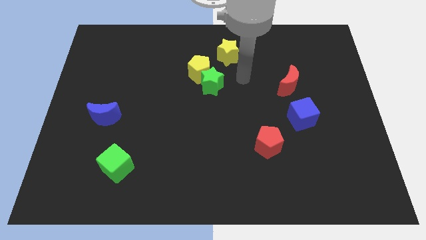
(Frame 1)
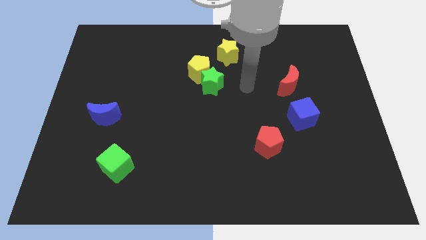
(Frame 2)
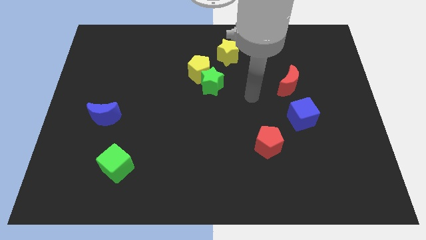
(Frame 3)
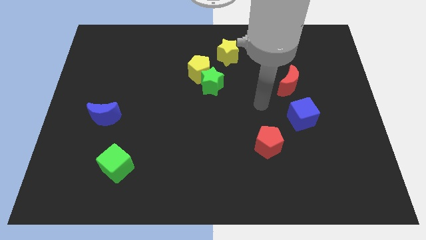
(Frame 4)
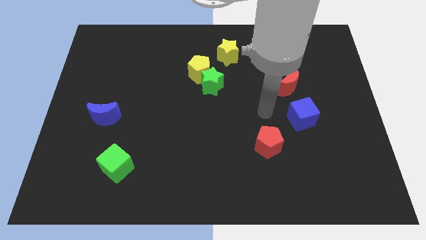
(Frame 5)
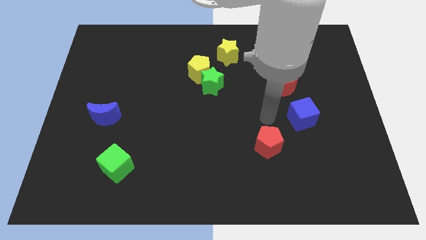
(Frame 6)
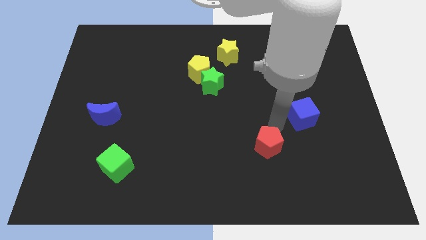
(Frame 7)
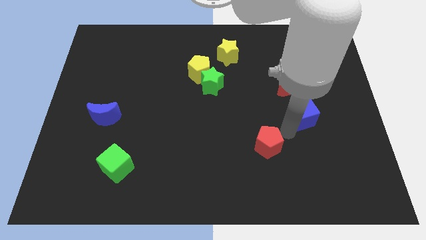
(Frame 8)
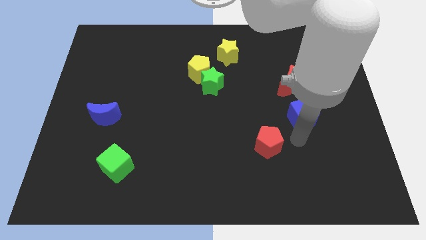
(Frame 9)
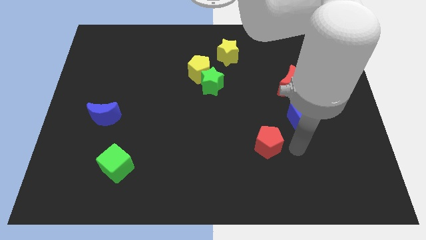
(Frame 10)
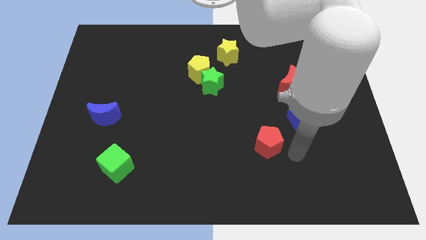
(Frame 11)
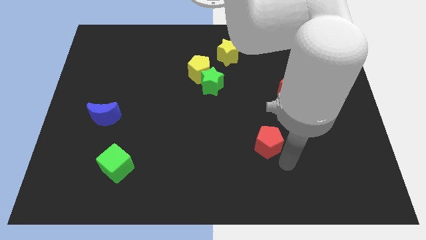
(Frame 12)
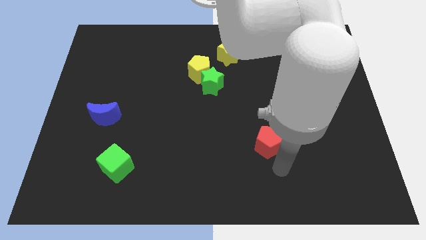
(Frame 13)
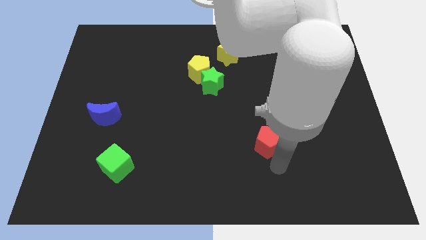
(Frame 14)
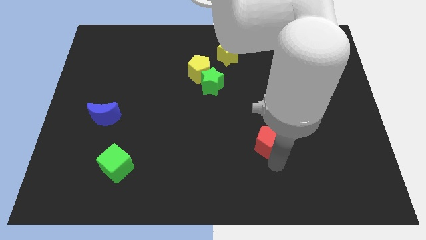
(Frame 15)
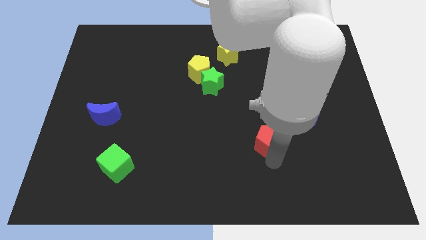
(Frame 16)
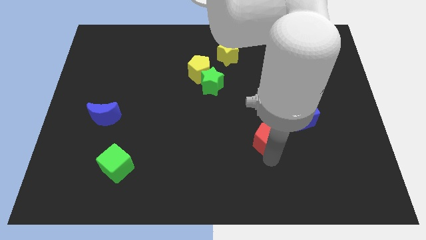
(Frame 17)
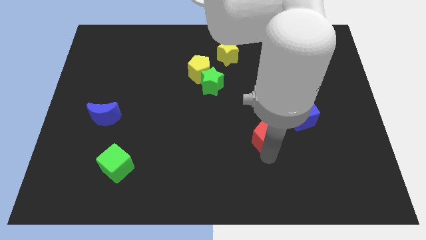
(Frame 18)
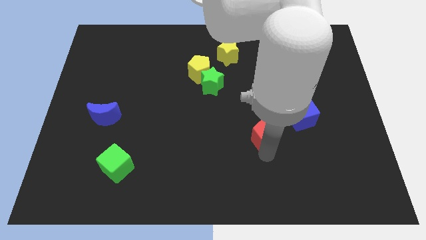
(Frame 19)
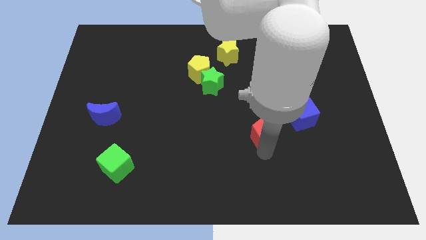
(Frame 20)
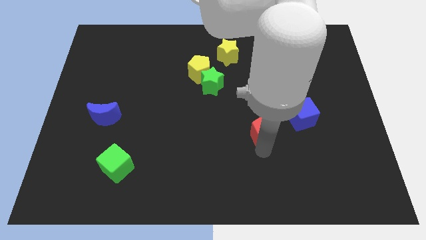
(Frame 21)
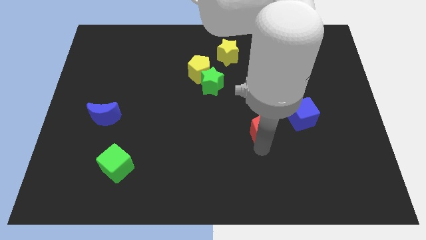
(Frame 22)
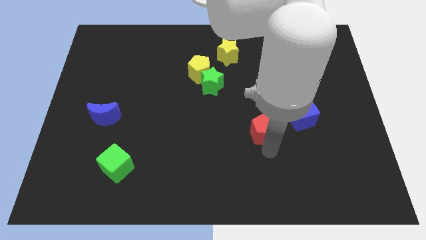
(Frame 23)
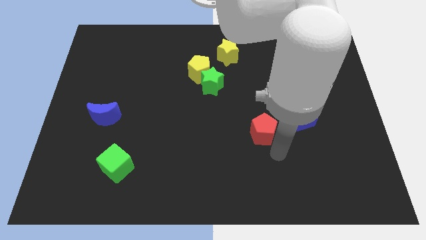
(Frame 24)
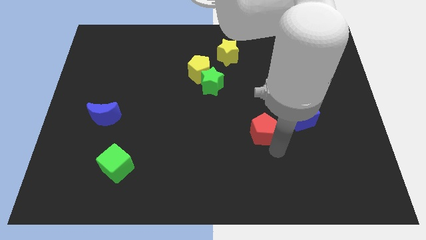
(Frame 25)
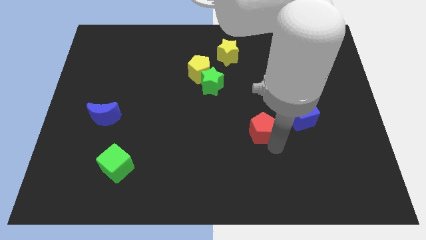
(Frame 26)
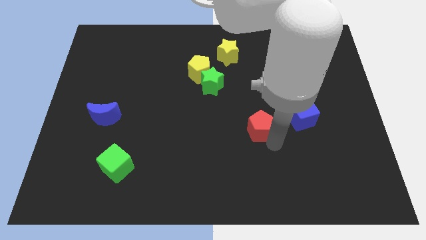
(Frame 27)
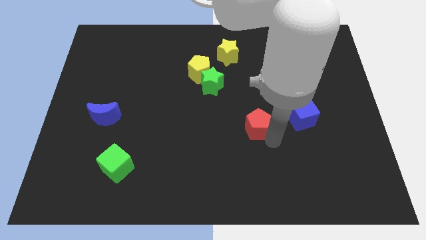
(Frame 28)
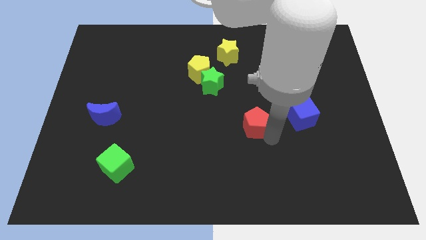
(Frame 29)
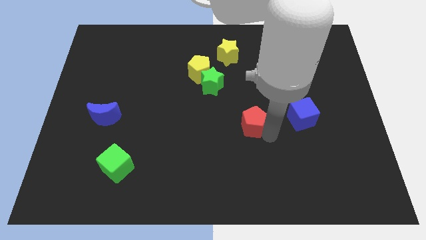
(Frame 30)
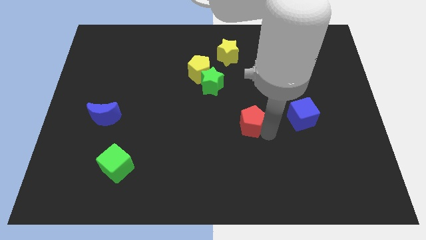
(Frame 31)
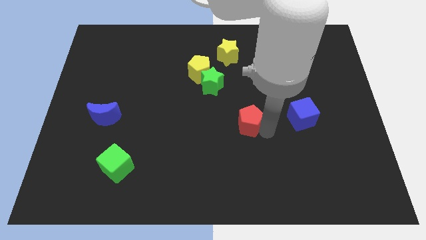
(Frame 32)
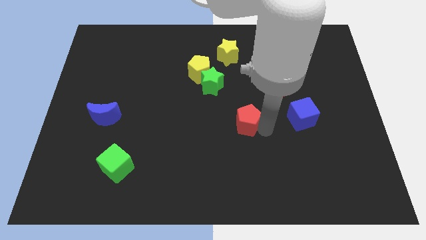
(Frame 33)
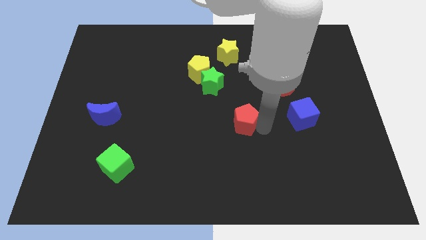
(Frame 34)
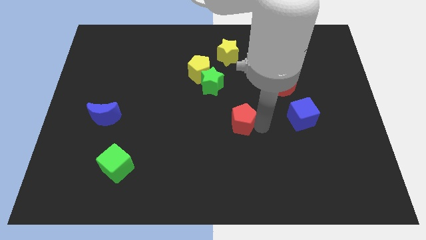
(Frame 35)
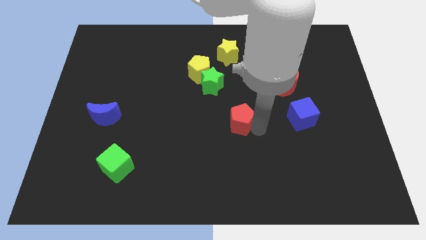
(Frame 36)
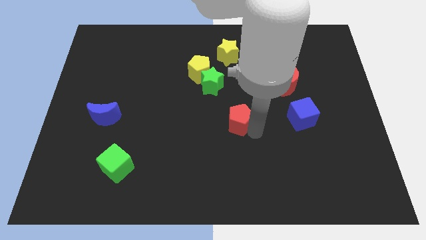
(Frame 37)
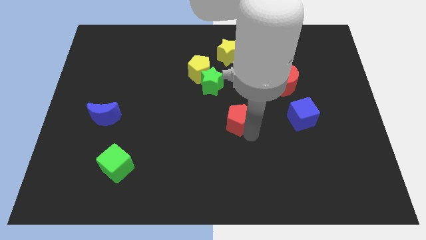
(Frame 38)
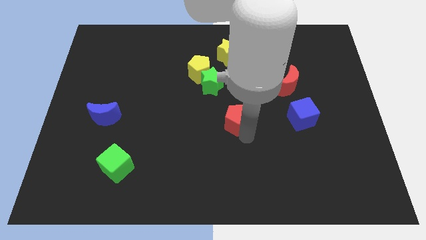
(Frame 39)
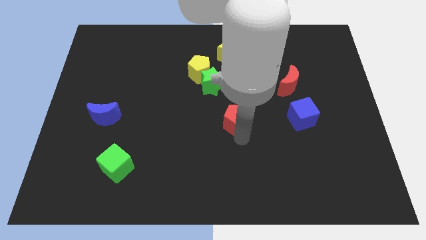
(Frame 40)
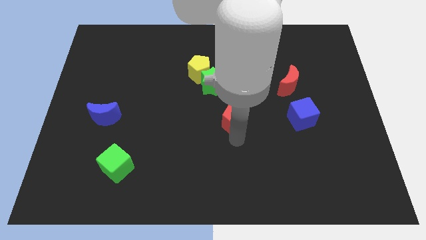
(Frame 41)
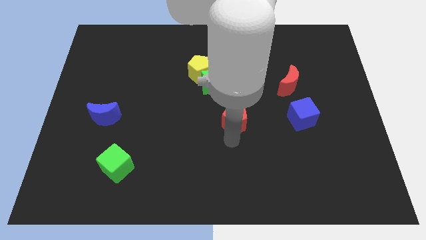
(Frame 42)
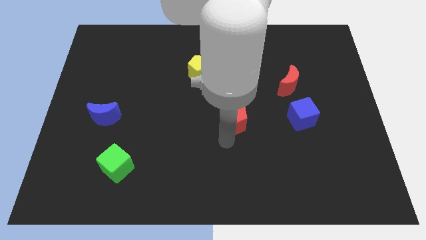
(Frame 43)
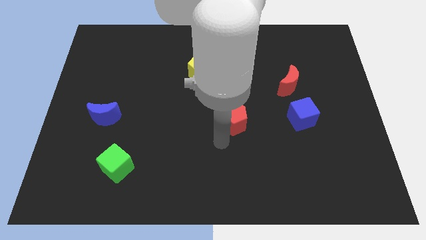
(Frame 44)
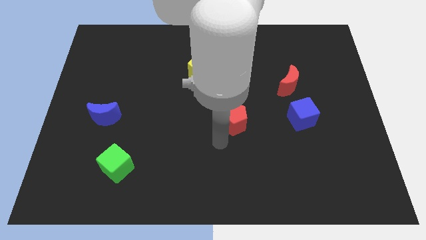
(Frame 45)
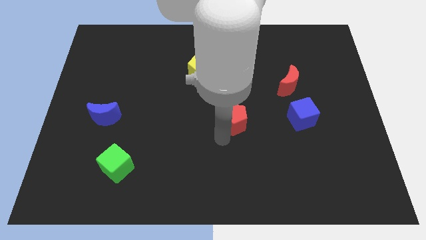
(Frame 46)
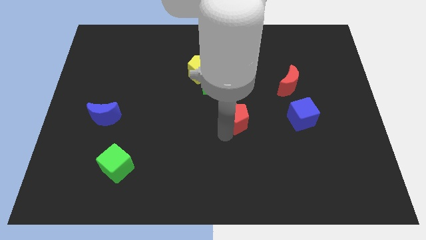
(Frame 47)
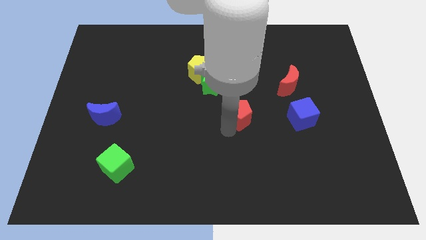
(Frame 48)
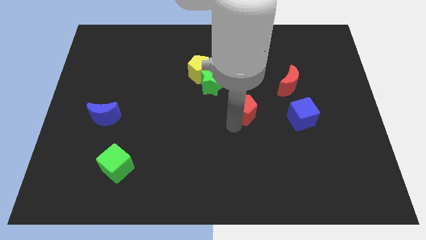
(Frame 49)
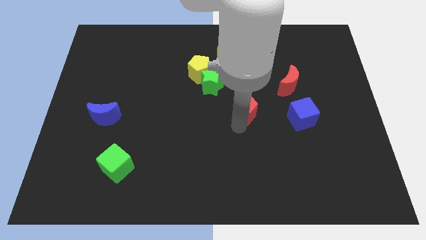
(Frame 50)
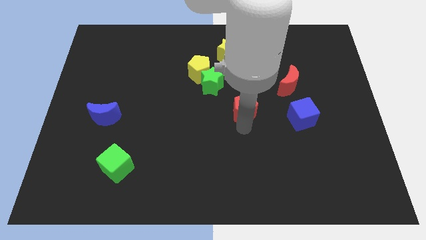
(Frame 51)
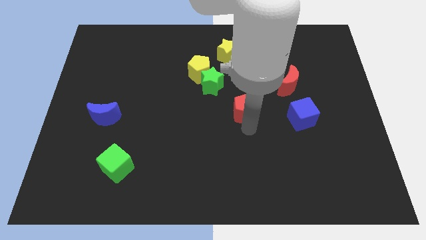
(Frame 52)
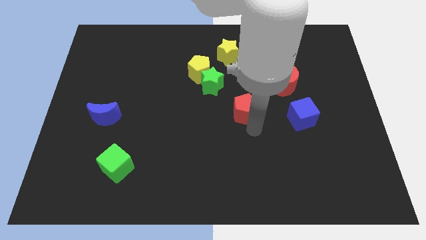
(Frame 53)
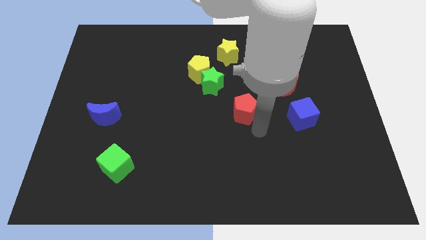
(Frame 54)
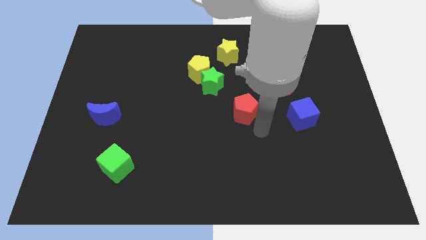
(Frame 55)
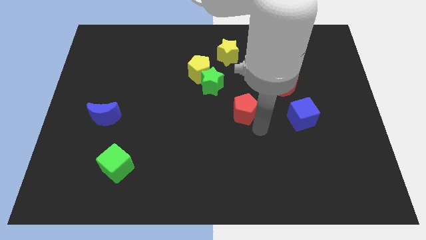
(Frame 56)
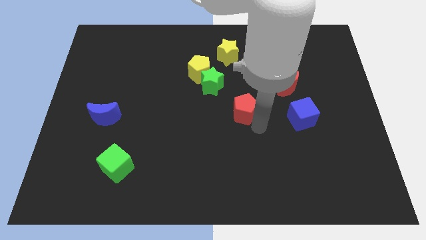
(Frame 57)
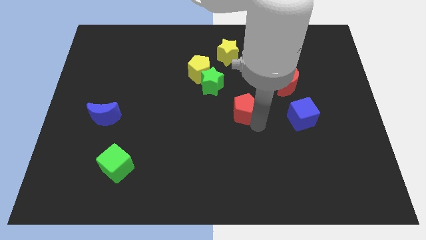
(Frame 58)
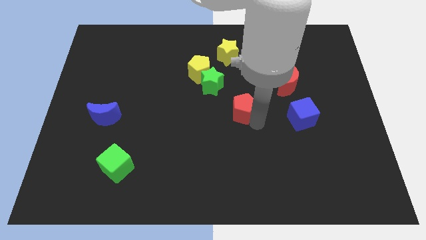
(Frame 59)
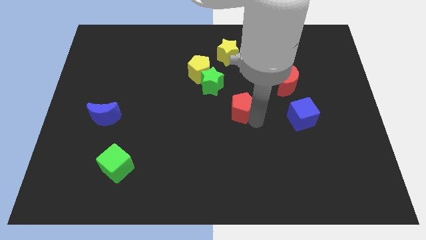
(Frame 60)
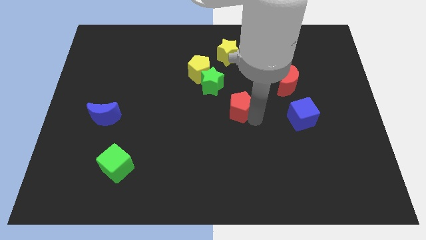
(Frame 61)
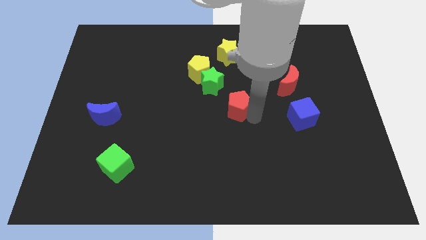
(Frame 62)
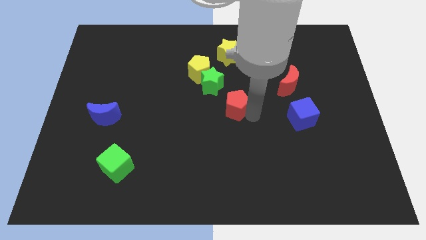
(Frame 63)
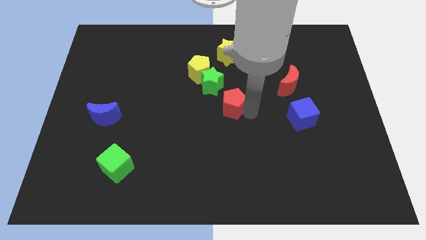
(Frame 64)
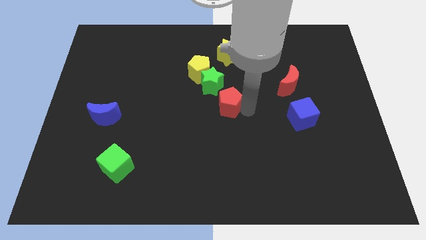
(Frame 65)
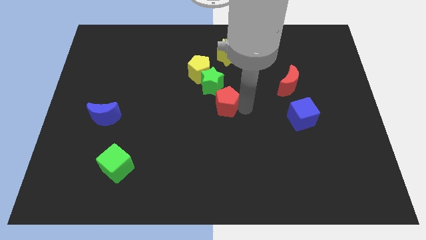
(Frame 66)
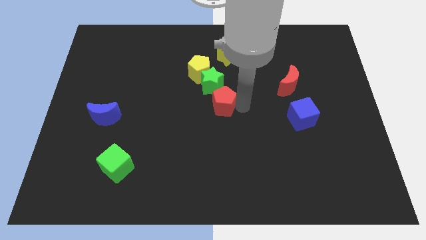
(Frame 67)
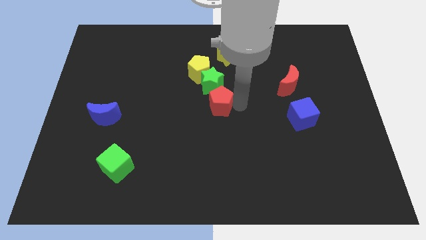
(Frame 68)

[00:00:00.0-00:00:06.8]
push the red pentagon close to the green star
